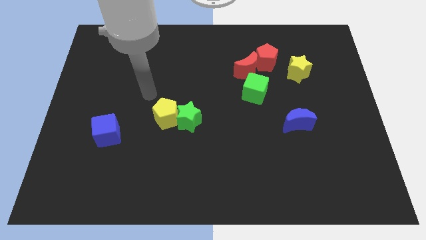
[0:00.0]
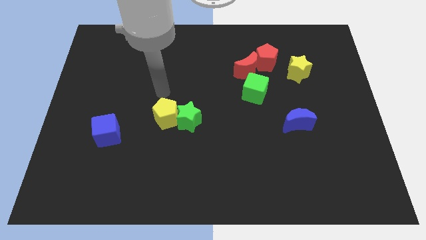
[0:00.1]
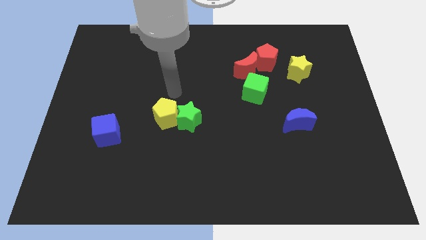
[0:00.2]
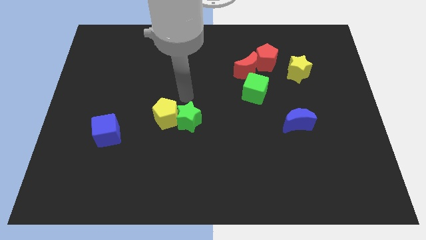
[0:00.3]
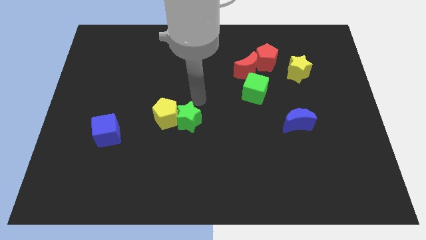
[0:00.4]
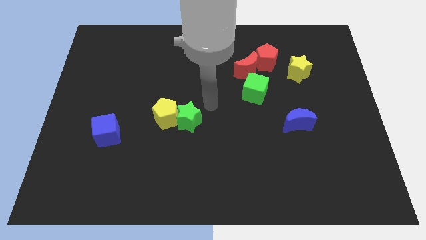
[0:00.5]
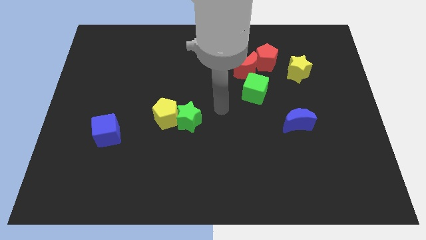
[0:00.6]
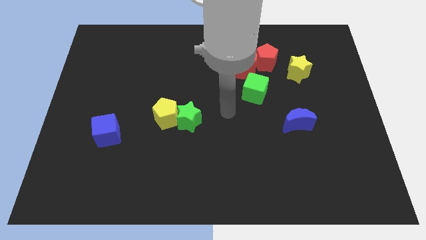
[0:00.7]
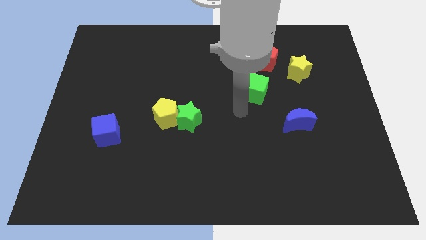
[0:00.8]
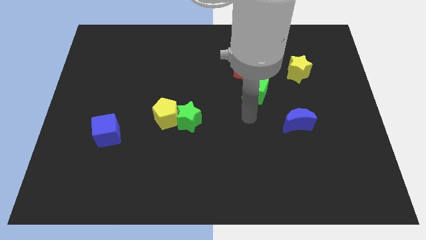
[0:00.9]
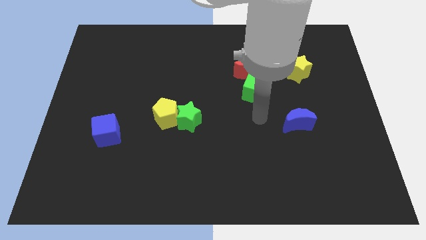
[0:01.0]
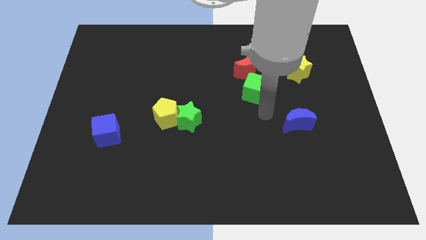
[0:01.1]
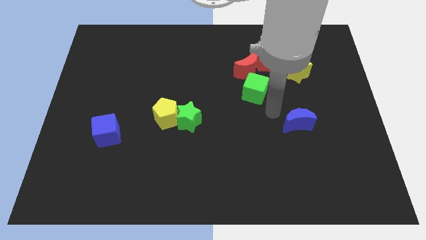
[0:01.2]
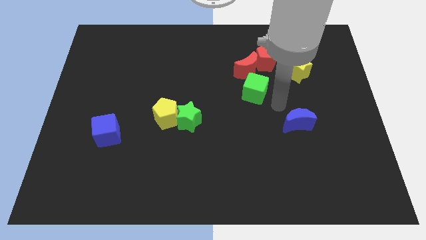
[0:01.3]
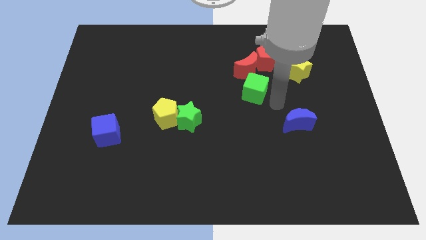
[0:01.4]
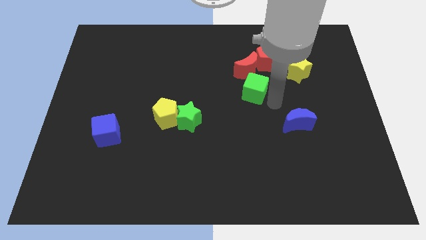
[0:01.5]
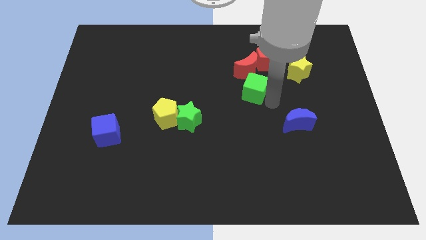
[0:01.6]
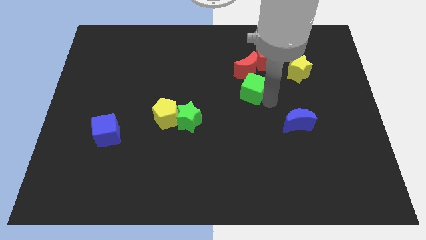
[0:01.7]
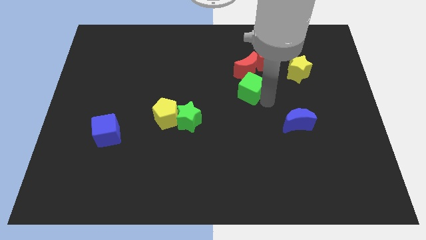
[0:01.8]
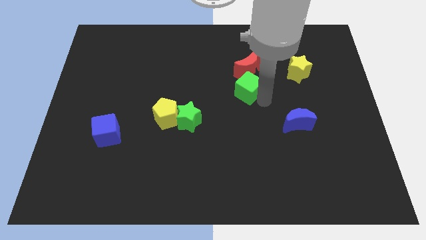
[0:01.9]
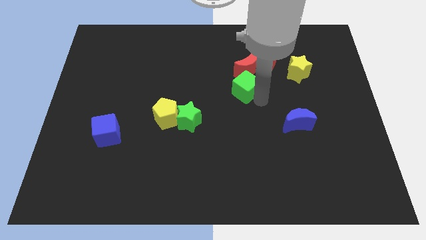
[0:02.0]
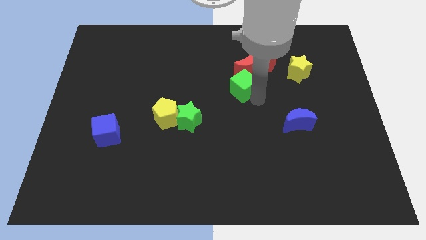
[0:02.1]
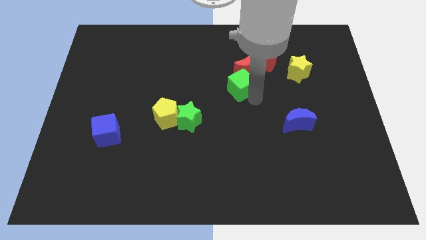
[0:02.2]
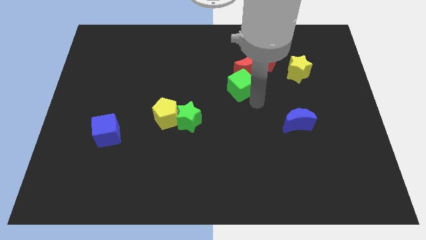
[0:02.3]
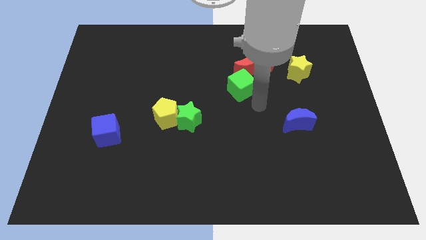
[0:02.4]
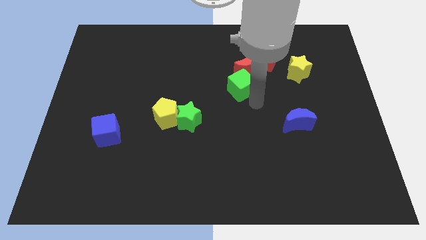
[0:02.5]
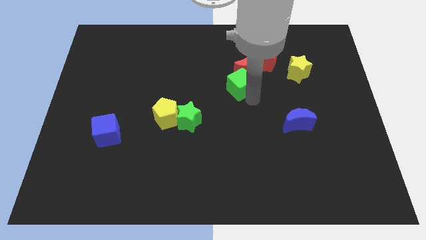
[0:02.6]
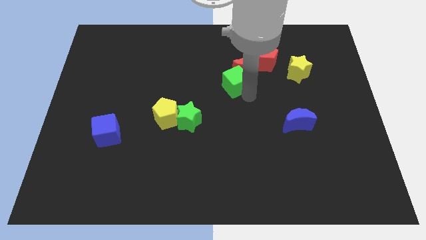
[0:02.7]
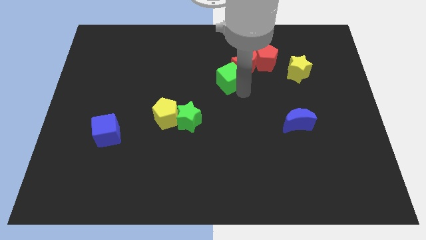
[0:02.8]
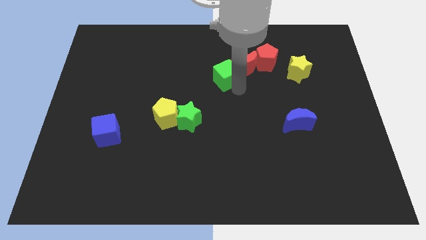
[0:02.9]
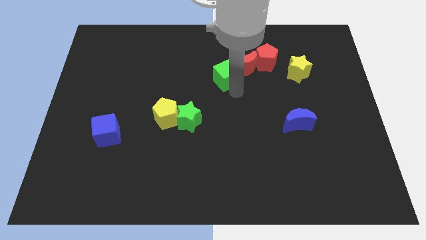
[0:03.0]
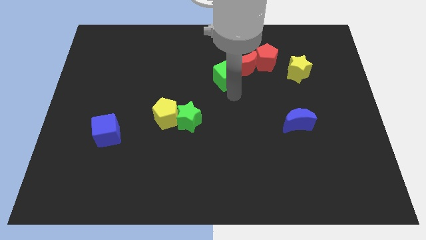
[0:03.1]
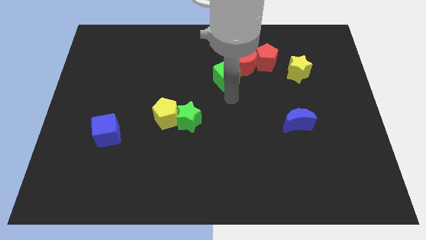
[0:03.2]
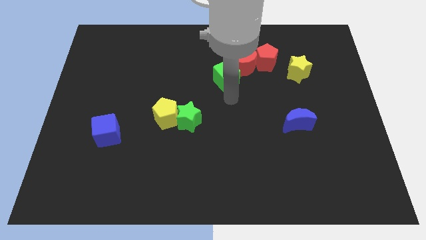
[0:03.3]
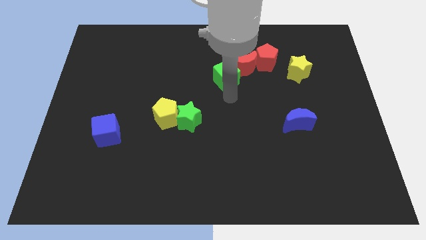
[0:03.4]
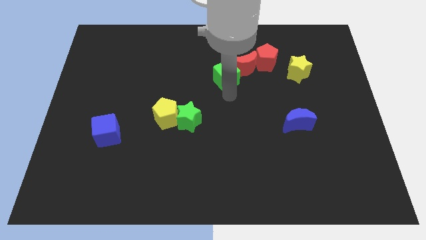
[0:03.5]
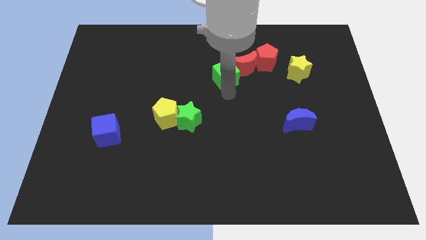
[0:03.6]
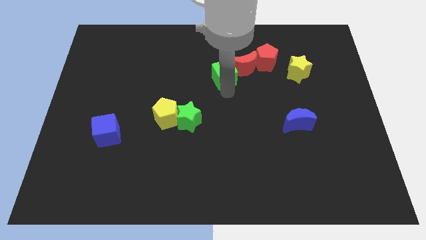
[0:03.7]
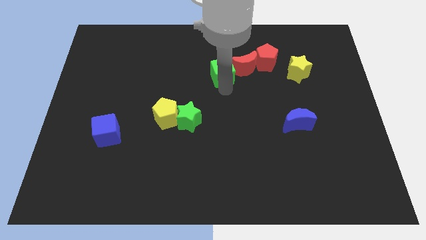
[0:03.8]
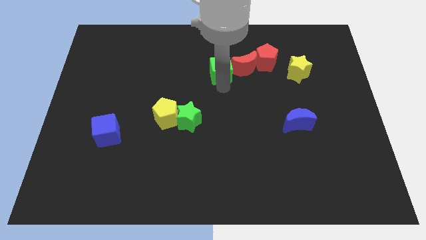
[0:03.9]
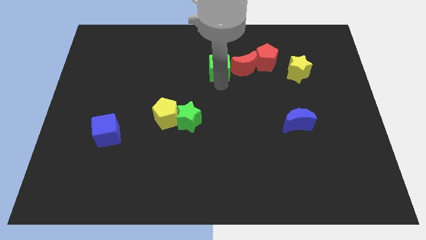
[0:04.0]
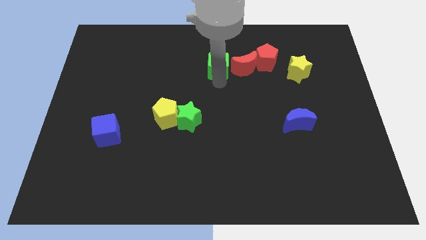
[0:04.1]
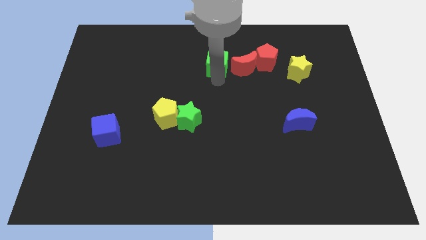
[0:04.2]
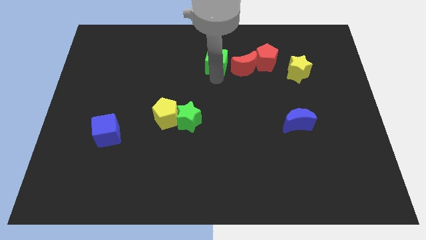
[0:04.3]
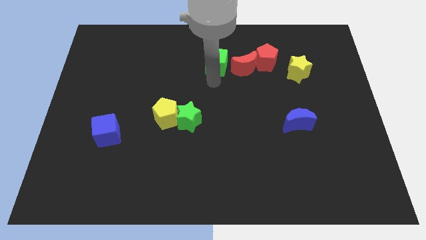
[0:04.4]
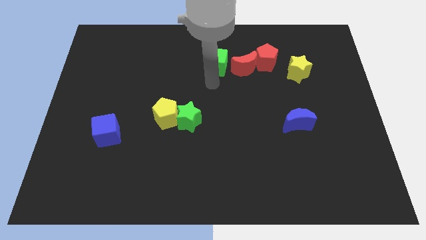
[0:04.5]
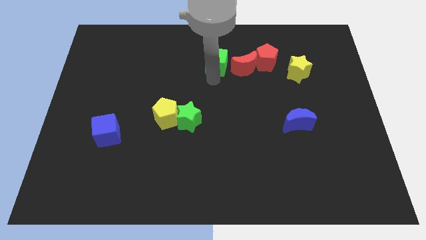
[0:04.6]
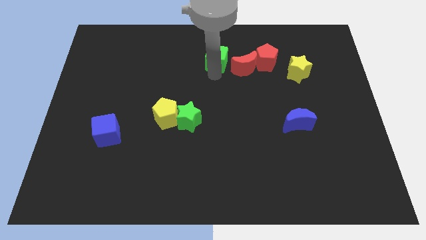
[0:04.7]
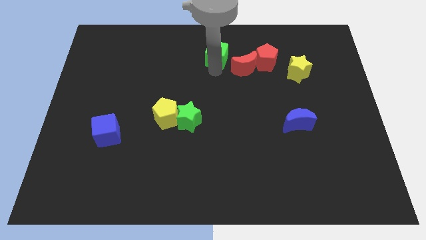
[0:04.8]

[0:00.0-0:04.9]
push the green cube to the top

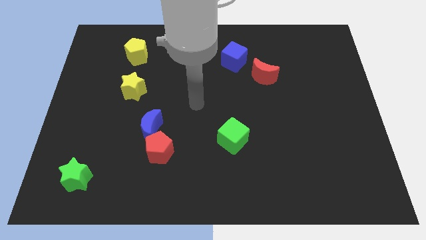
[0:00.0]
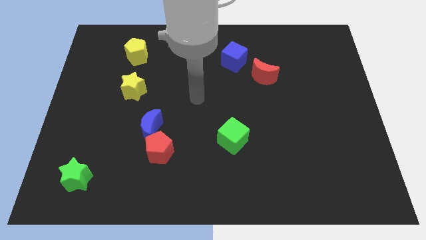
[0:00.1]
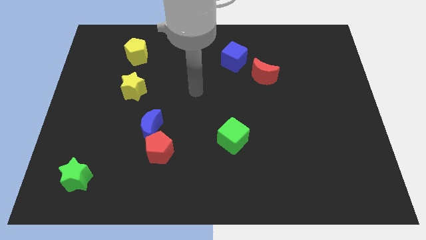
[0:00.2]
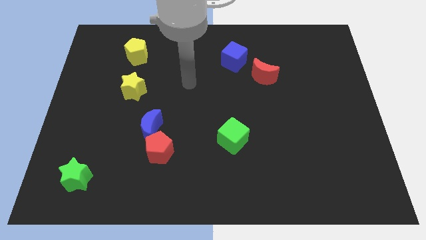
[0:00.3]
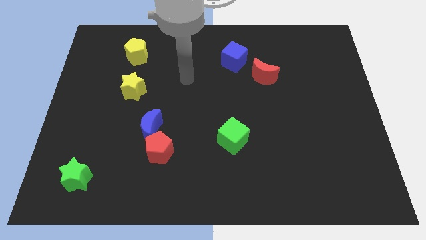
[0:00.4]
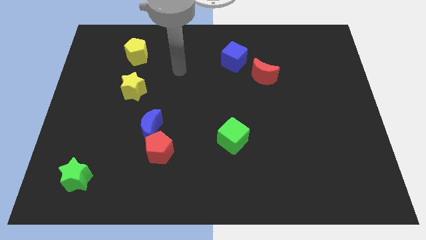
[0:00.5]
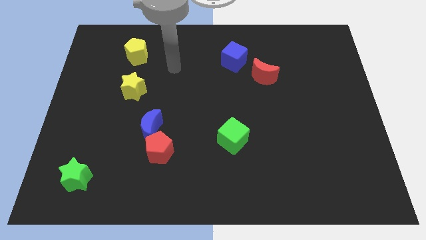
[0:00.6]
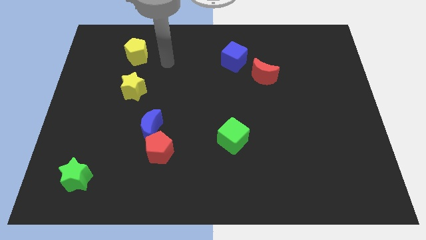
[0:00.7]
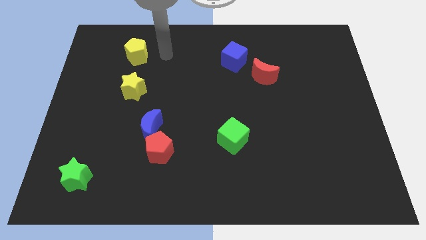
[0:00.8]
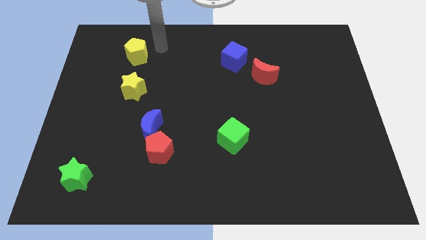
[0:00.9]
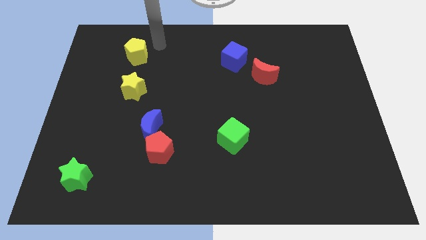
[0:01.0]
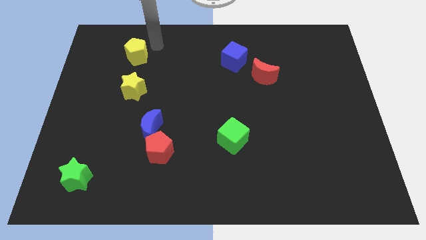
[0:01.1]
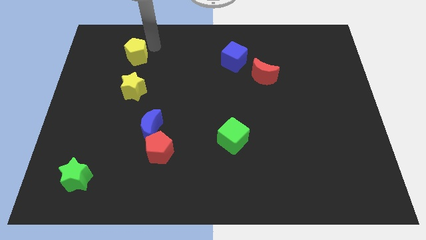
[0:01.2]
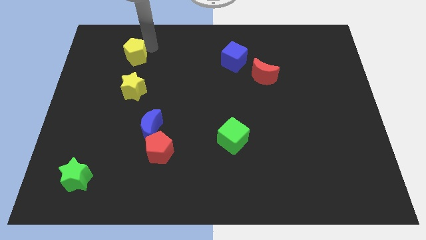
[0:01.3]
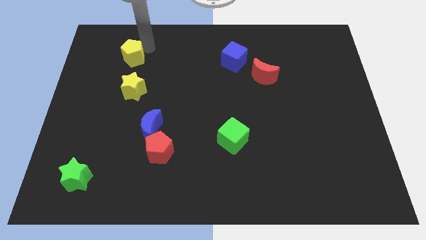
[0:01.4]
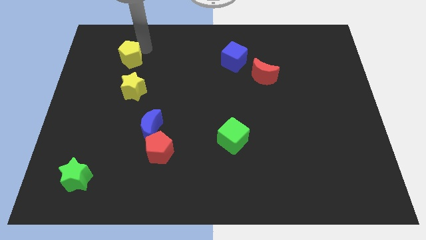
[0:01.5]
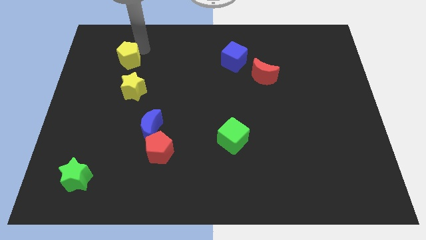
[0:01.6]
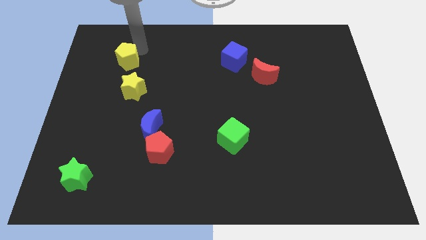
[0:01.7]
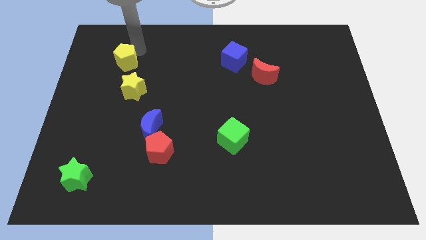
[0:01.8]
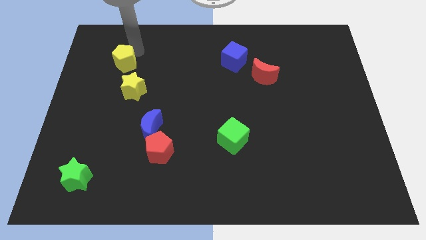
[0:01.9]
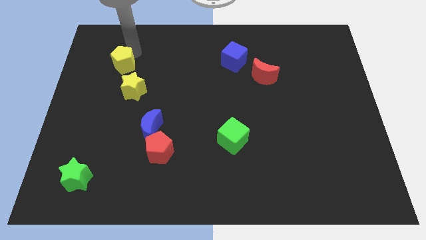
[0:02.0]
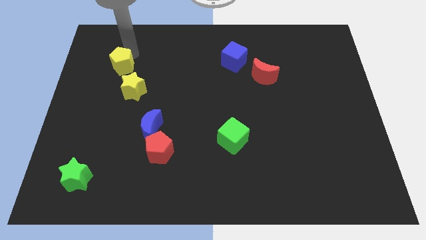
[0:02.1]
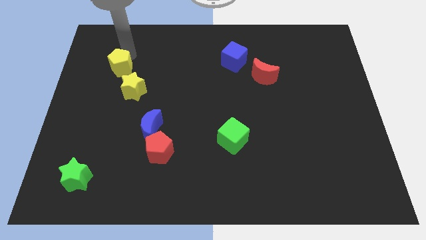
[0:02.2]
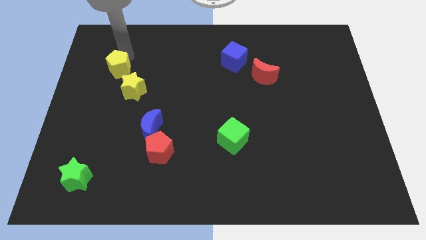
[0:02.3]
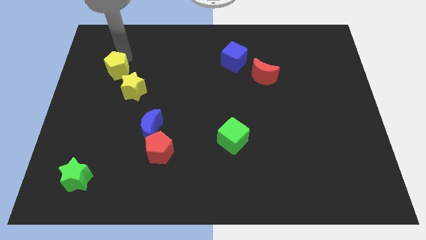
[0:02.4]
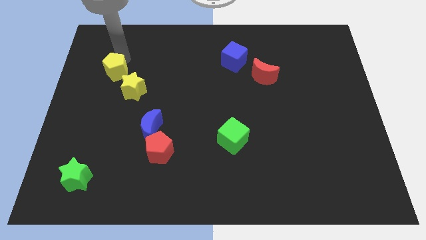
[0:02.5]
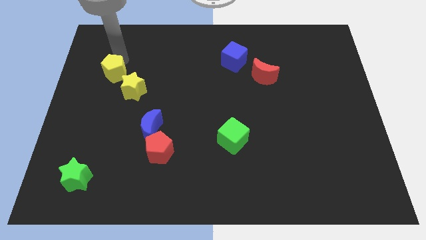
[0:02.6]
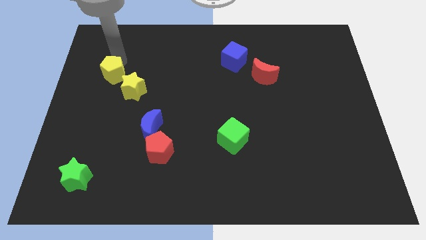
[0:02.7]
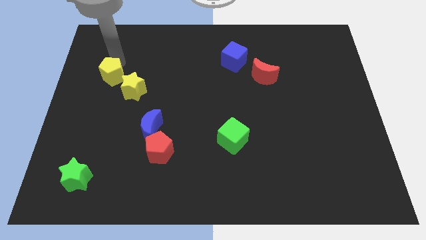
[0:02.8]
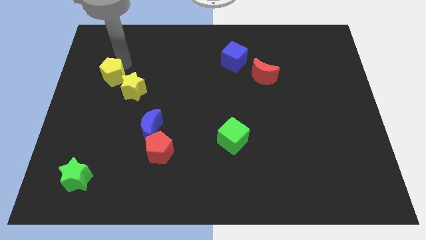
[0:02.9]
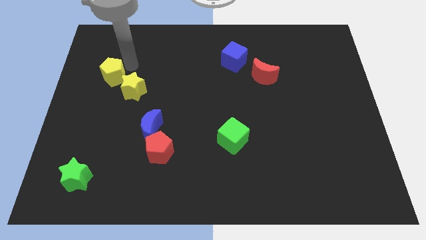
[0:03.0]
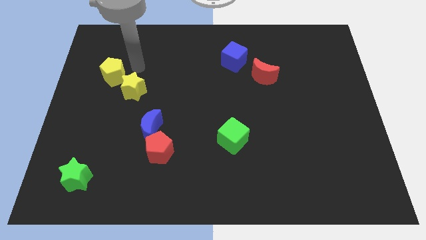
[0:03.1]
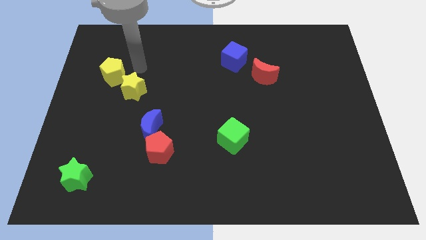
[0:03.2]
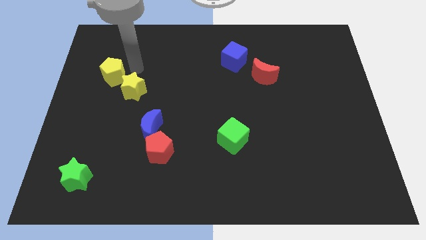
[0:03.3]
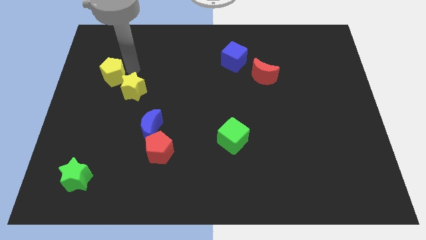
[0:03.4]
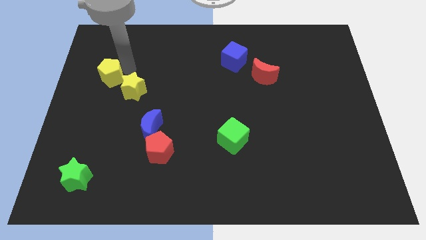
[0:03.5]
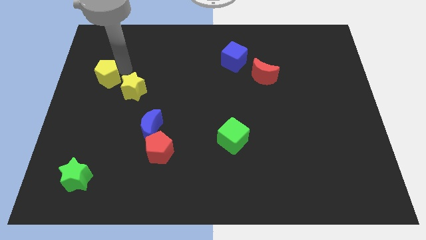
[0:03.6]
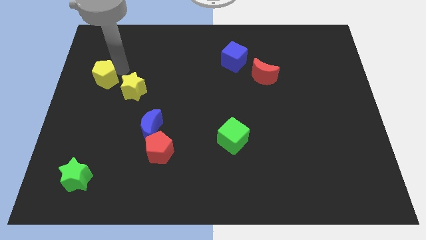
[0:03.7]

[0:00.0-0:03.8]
push the yellow pentagon to the center left
